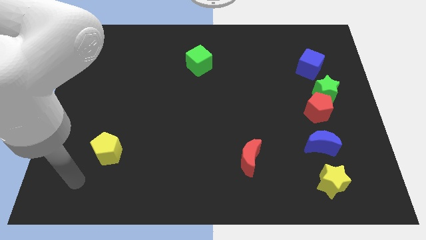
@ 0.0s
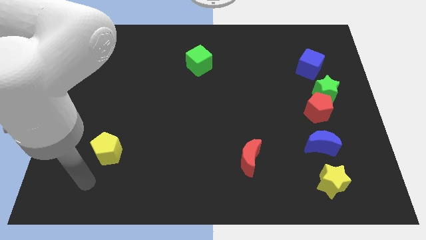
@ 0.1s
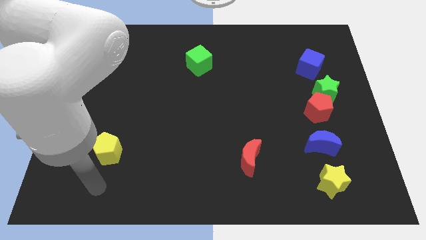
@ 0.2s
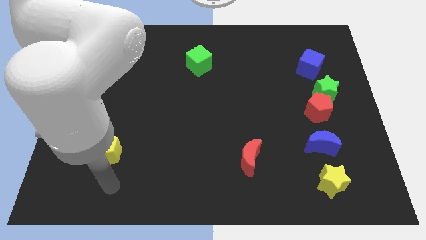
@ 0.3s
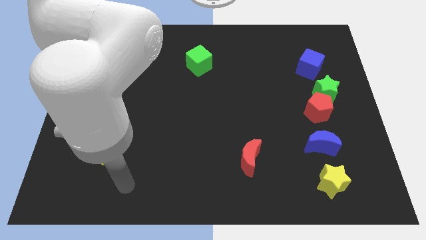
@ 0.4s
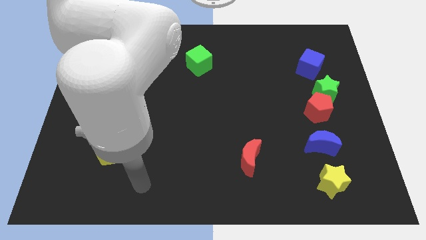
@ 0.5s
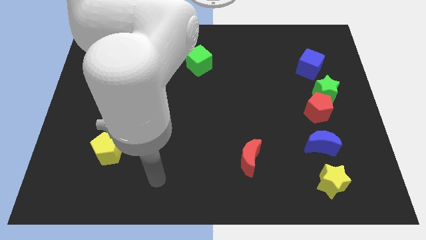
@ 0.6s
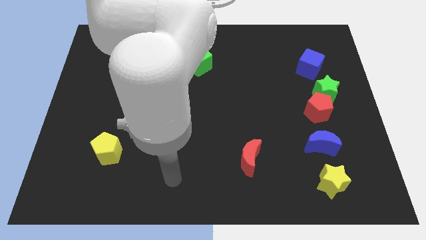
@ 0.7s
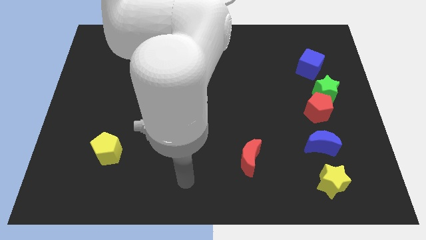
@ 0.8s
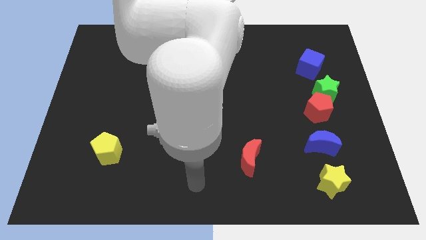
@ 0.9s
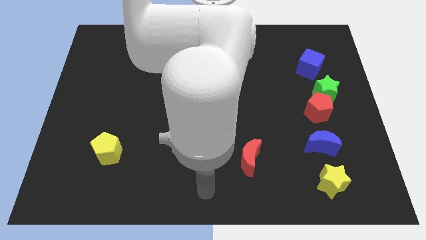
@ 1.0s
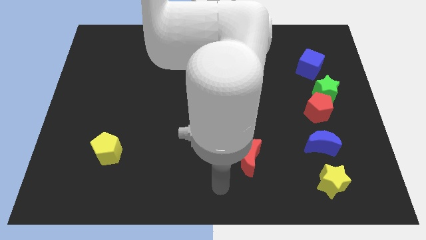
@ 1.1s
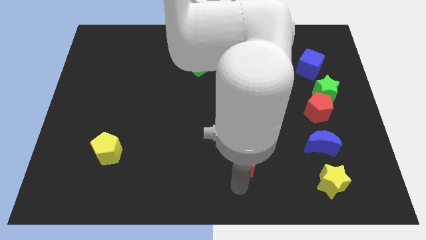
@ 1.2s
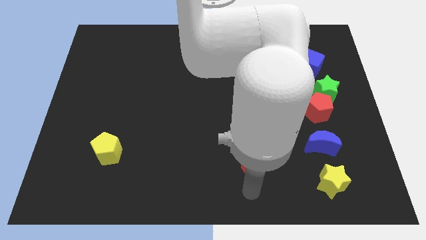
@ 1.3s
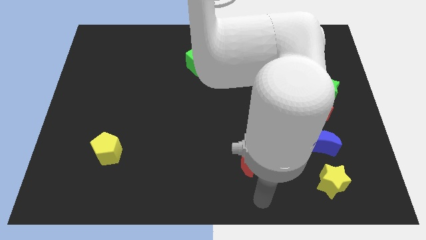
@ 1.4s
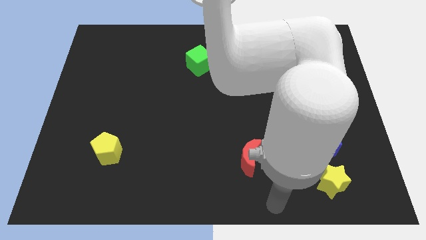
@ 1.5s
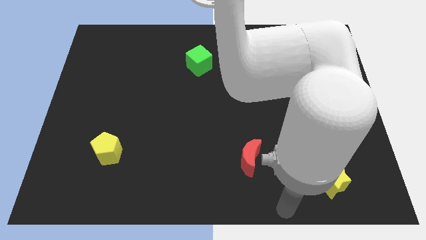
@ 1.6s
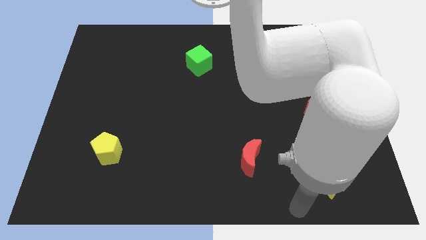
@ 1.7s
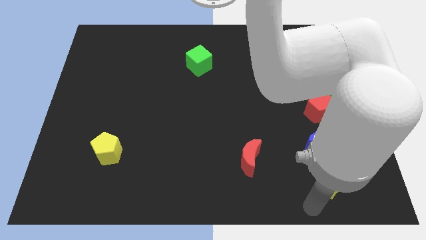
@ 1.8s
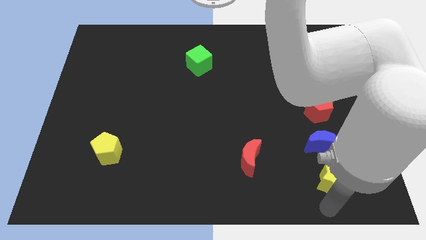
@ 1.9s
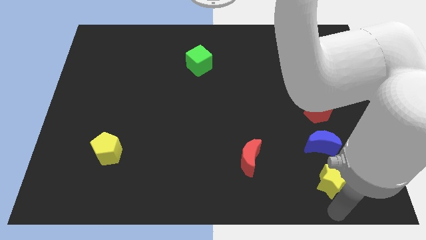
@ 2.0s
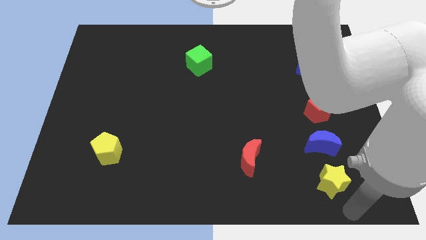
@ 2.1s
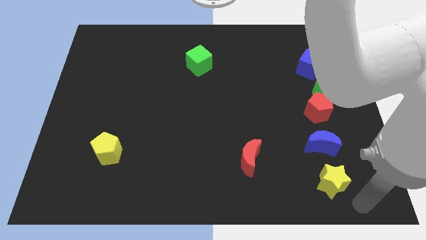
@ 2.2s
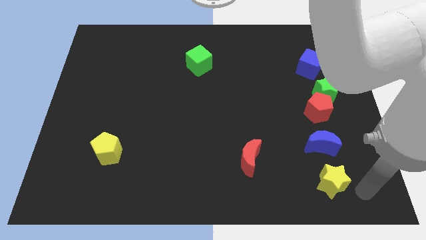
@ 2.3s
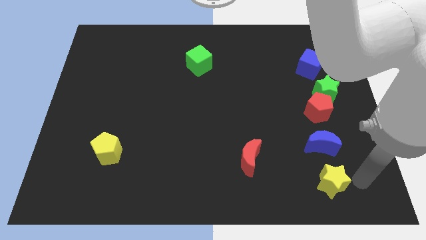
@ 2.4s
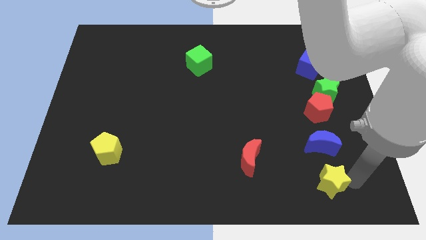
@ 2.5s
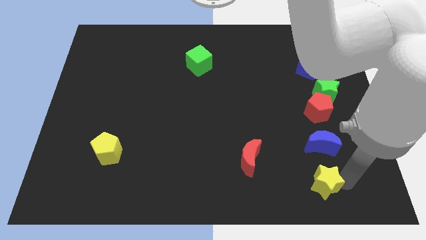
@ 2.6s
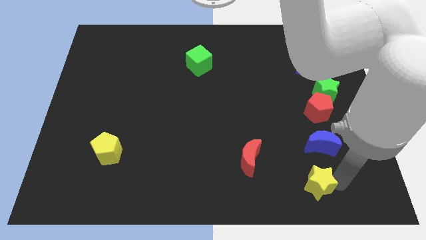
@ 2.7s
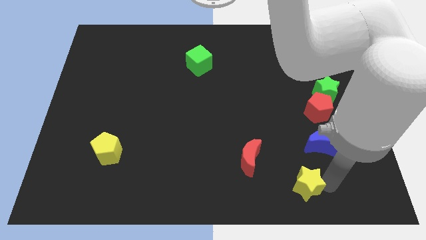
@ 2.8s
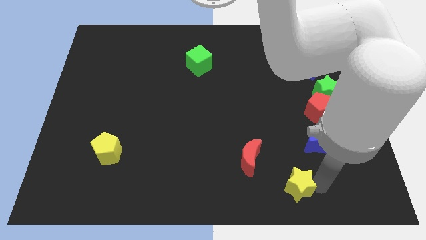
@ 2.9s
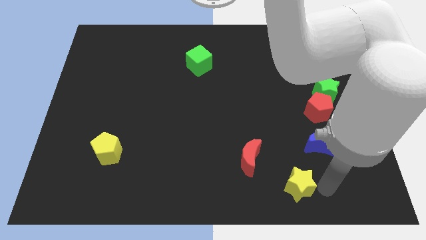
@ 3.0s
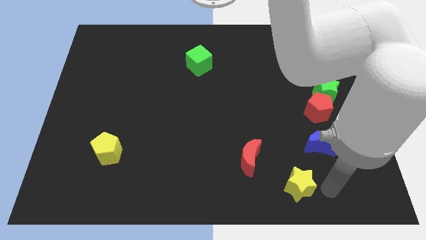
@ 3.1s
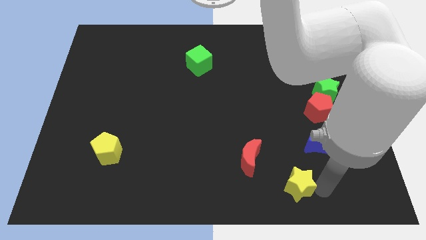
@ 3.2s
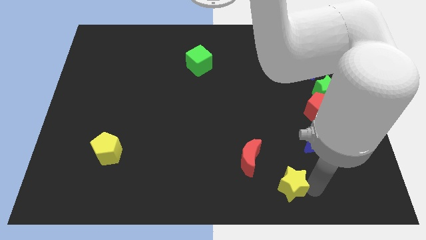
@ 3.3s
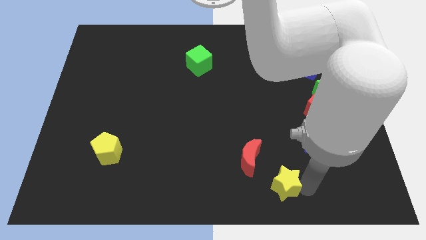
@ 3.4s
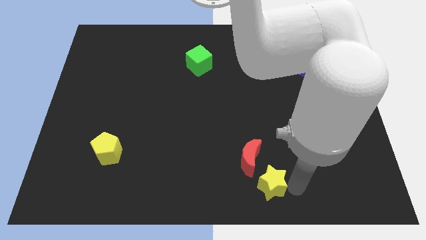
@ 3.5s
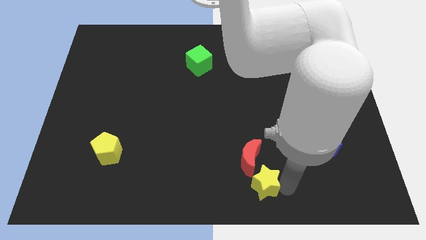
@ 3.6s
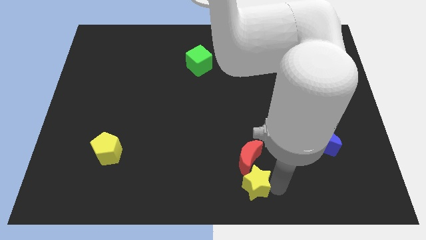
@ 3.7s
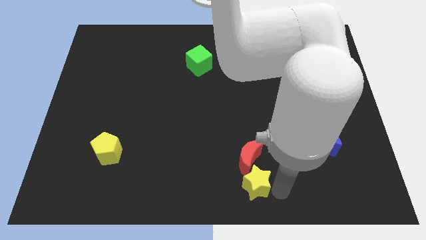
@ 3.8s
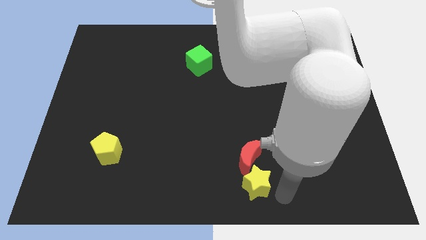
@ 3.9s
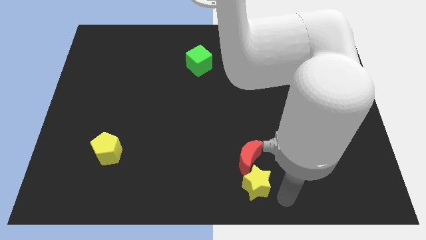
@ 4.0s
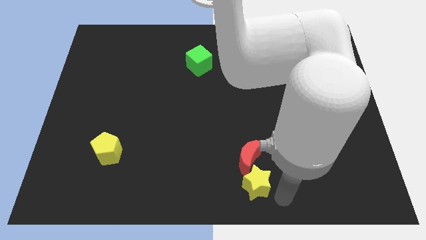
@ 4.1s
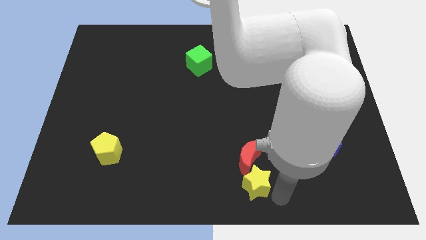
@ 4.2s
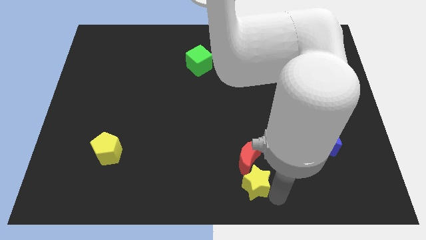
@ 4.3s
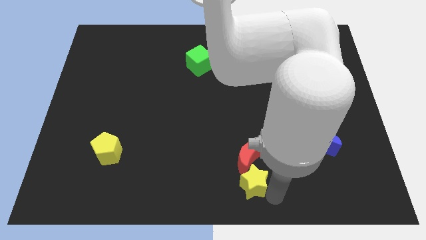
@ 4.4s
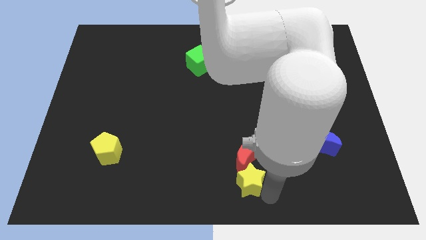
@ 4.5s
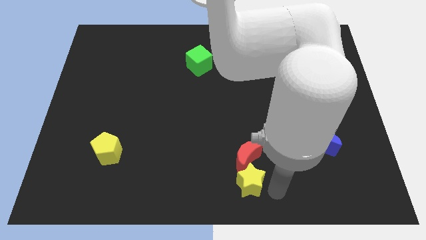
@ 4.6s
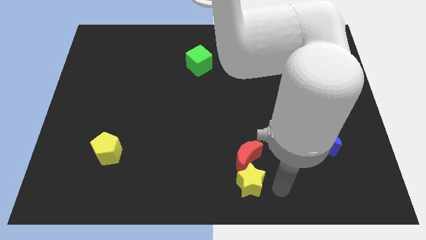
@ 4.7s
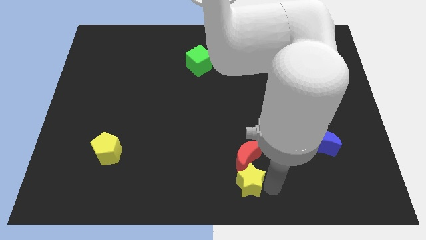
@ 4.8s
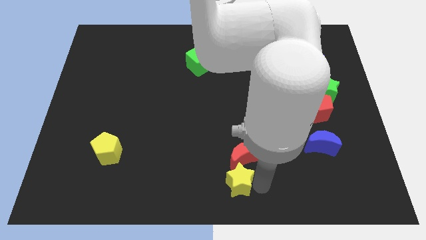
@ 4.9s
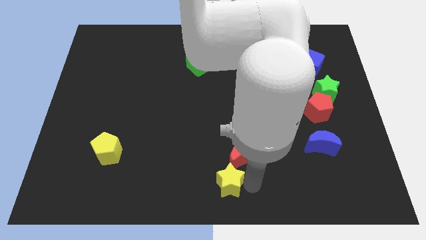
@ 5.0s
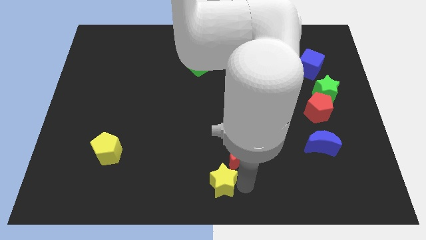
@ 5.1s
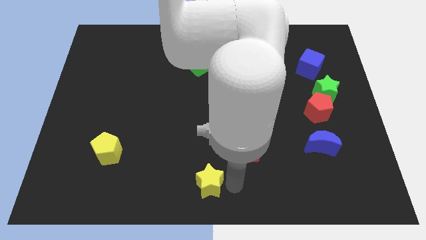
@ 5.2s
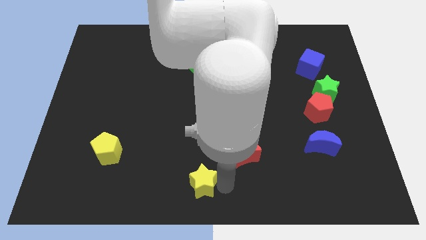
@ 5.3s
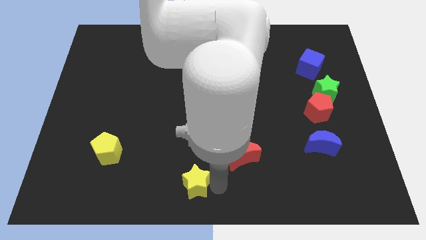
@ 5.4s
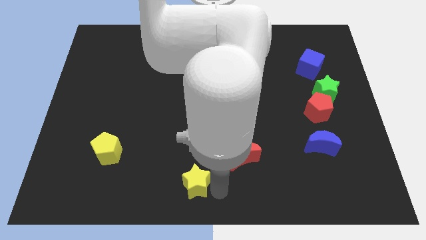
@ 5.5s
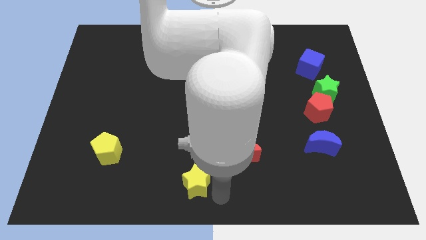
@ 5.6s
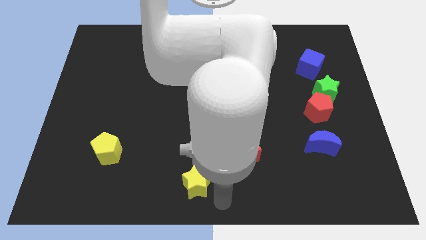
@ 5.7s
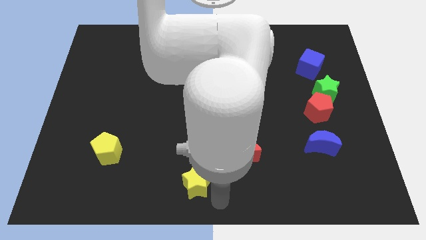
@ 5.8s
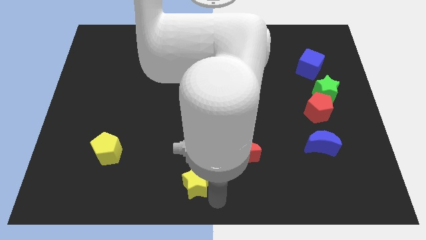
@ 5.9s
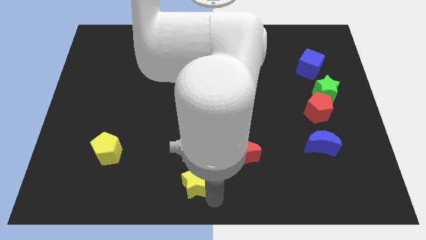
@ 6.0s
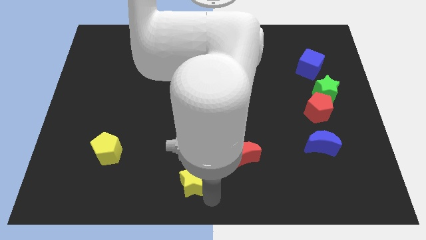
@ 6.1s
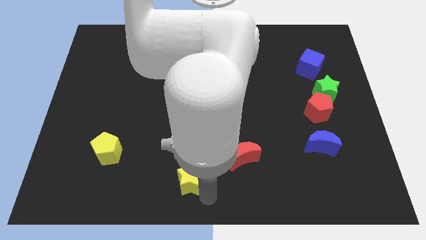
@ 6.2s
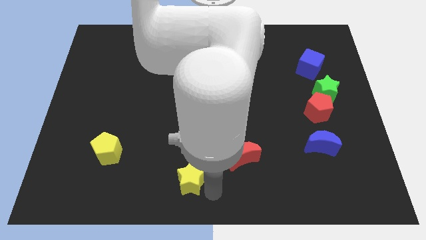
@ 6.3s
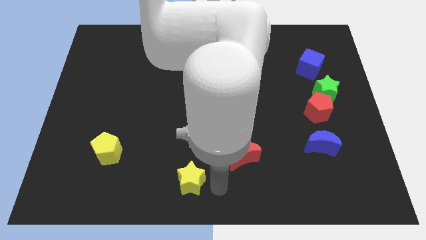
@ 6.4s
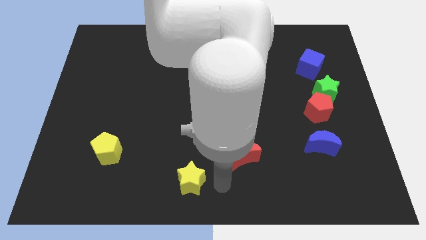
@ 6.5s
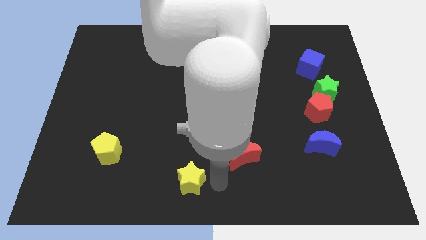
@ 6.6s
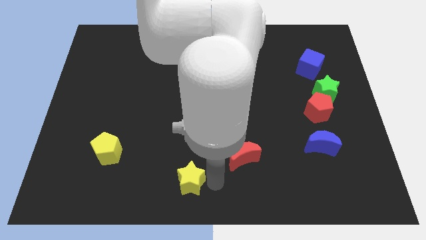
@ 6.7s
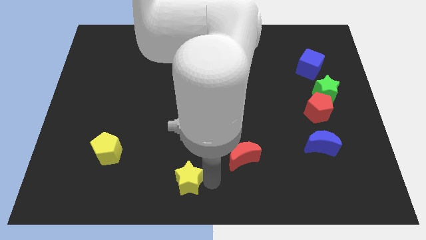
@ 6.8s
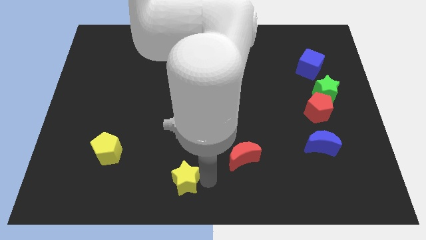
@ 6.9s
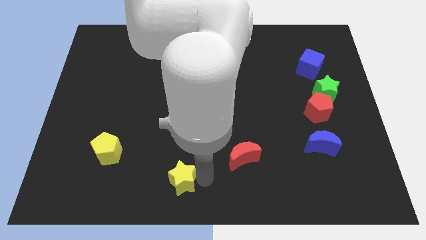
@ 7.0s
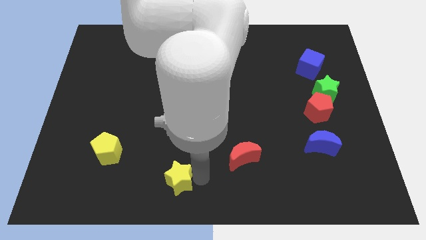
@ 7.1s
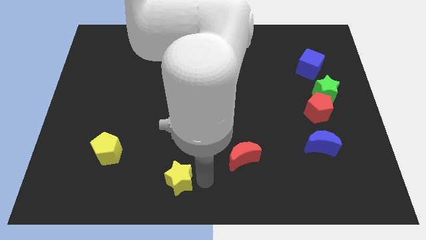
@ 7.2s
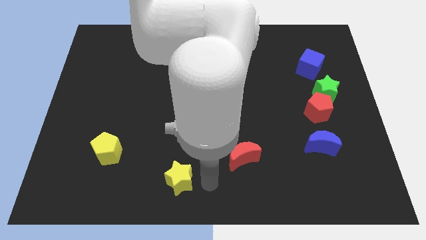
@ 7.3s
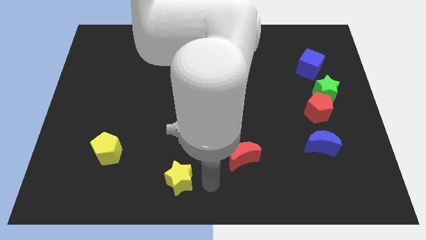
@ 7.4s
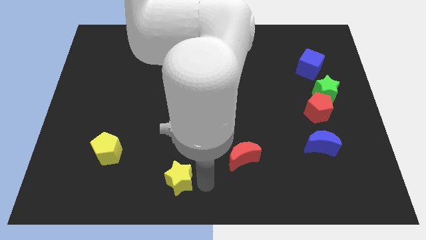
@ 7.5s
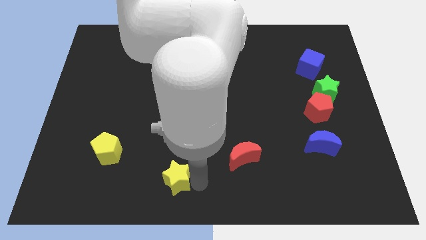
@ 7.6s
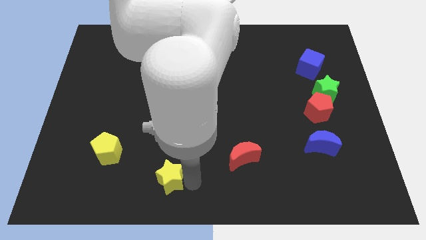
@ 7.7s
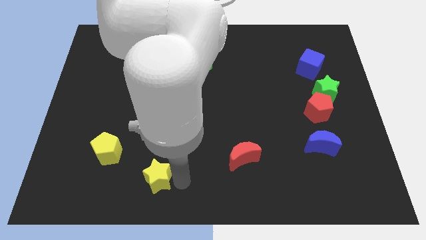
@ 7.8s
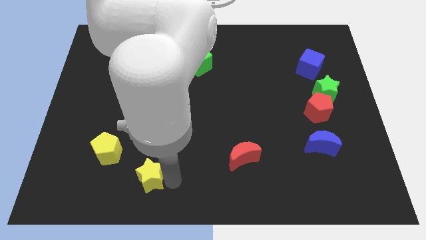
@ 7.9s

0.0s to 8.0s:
slide the yellow star to the bottom right side of the yellow pentagon

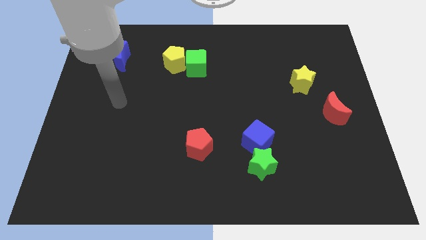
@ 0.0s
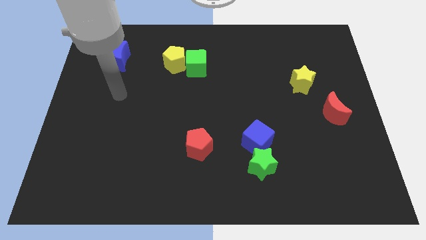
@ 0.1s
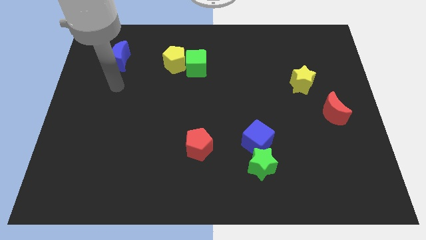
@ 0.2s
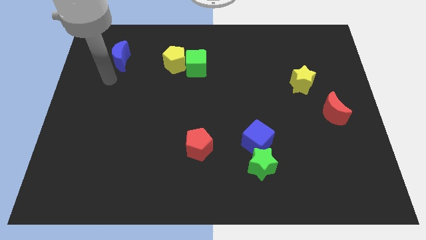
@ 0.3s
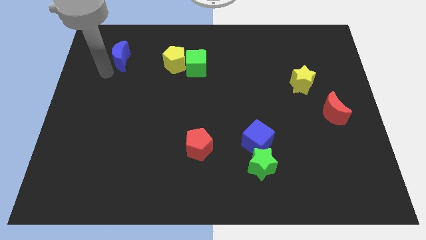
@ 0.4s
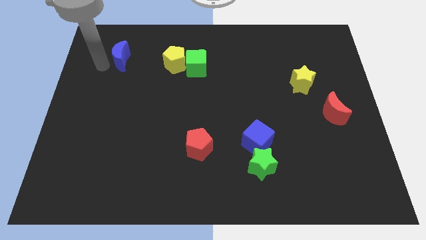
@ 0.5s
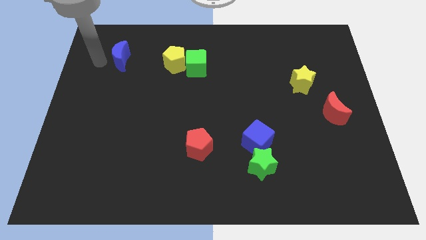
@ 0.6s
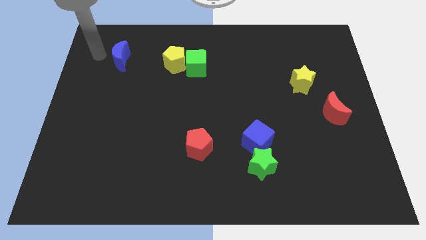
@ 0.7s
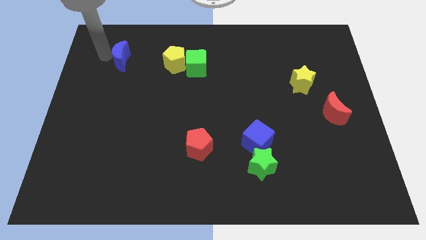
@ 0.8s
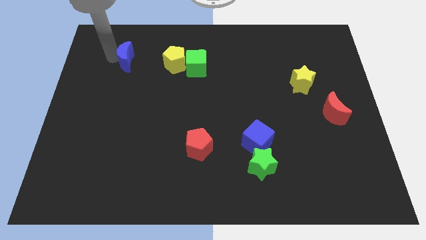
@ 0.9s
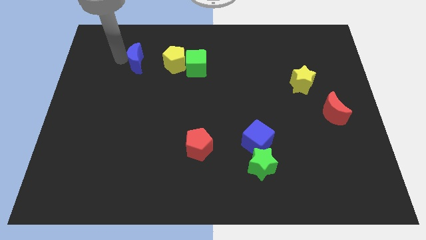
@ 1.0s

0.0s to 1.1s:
put the blue moon to the left side of the green cube
